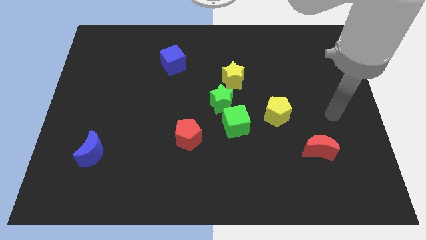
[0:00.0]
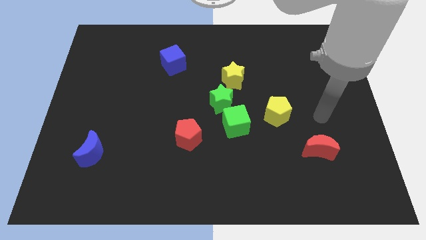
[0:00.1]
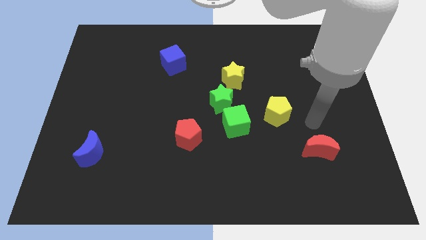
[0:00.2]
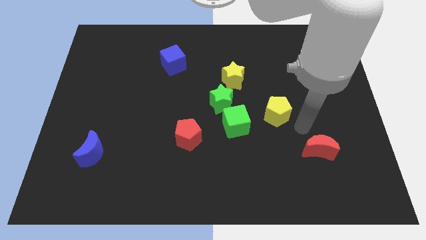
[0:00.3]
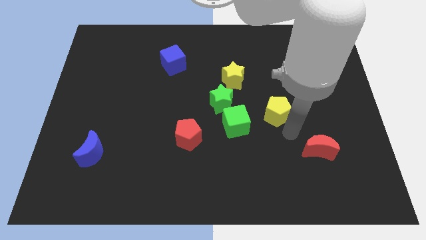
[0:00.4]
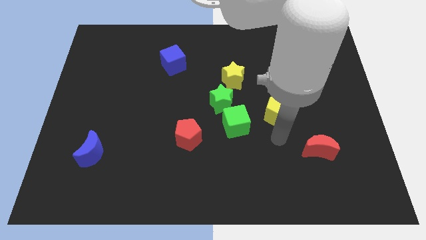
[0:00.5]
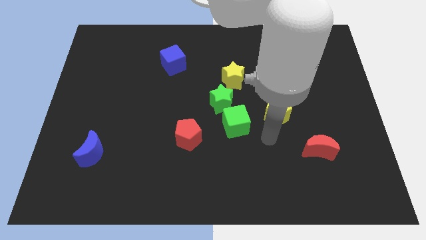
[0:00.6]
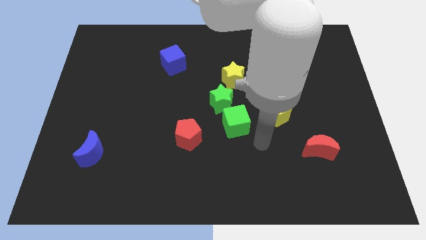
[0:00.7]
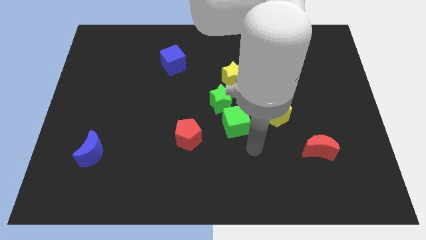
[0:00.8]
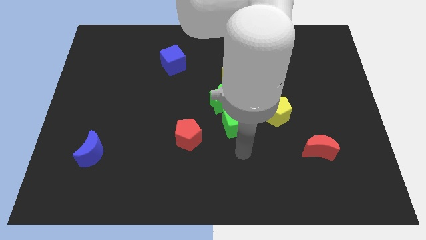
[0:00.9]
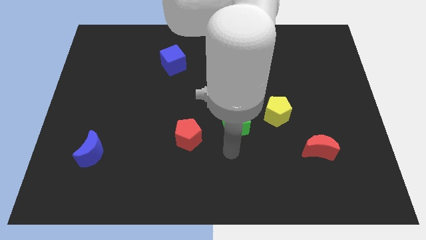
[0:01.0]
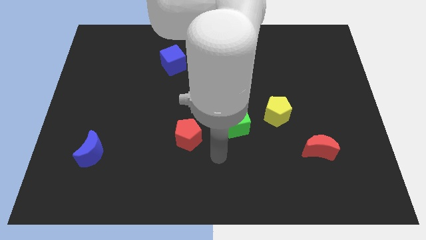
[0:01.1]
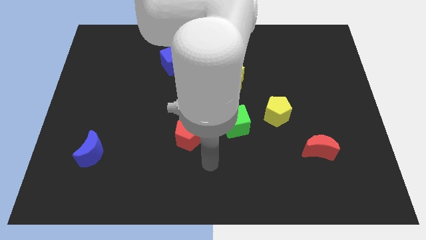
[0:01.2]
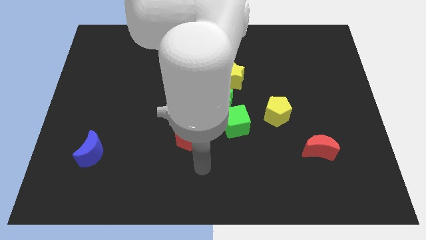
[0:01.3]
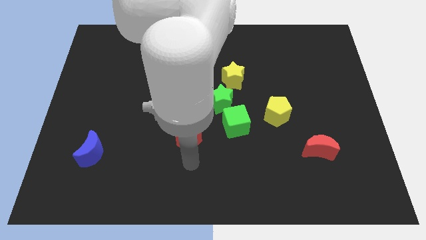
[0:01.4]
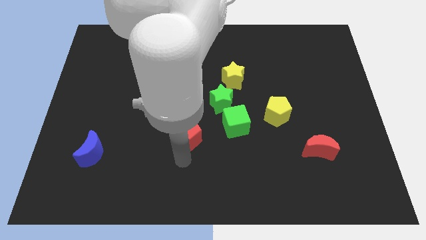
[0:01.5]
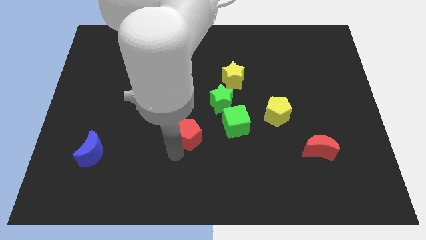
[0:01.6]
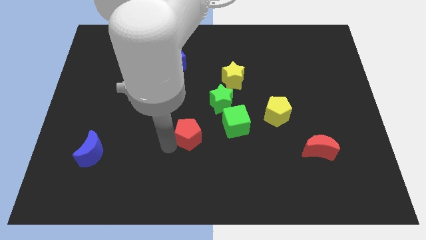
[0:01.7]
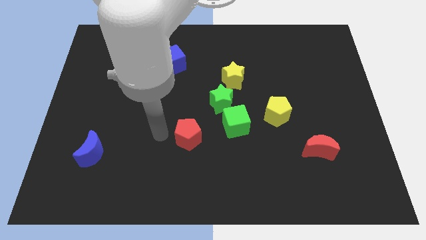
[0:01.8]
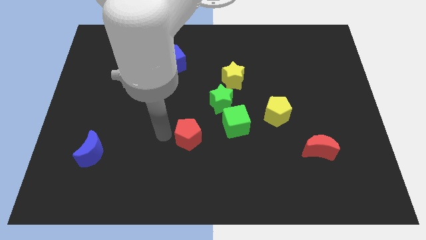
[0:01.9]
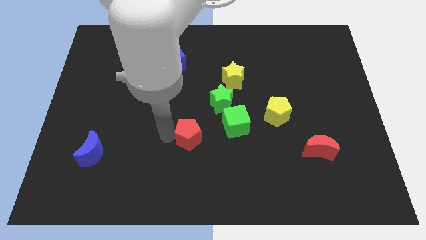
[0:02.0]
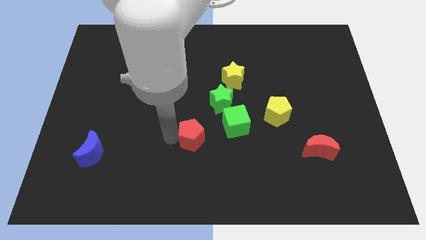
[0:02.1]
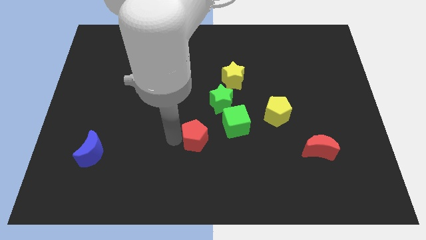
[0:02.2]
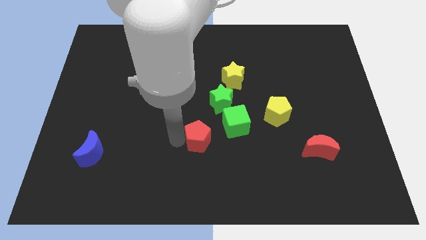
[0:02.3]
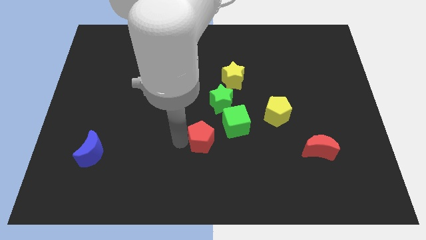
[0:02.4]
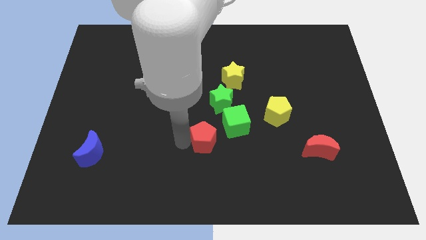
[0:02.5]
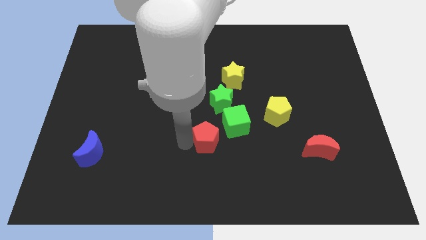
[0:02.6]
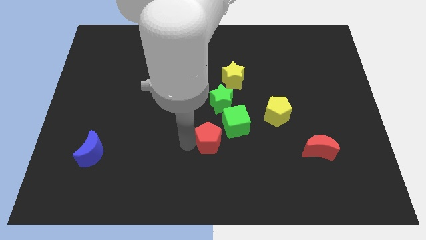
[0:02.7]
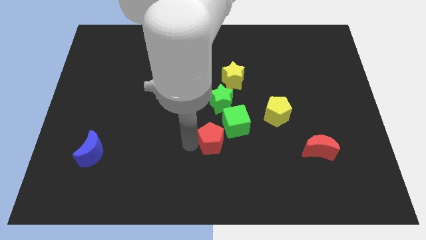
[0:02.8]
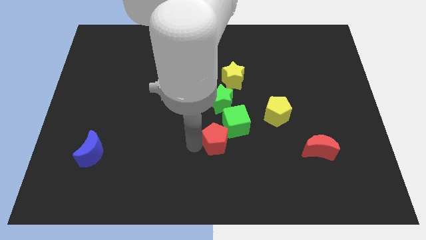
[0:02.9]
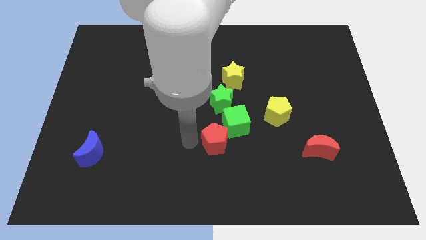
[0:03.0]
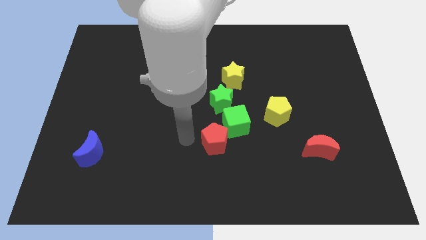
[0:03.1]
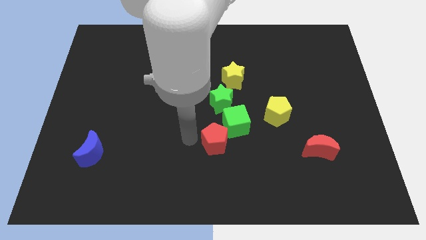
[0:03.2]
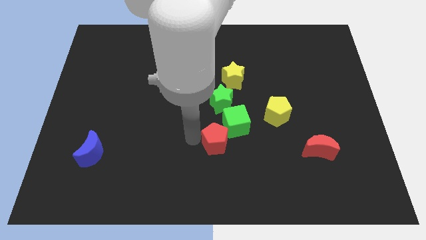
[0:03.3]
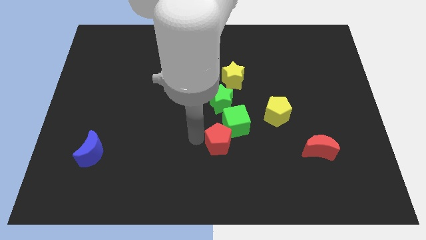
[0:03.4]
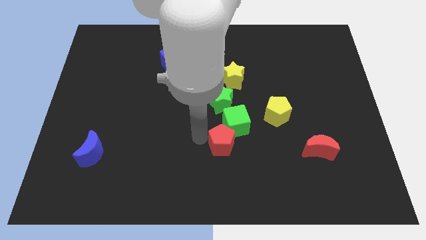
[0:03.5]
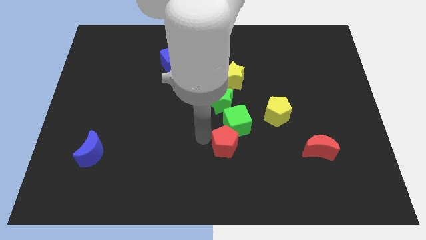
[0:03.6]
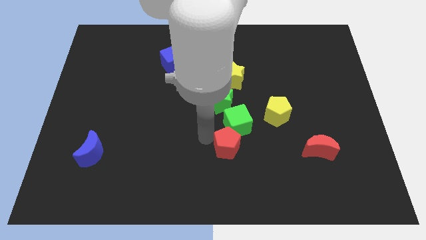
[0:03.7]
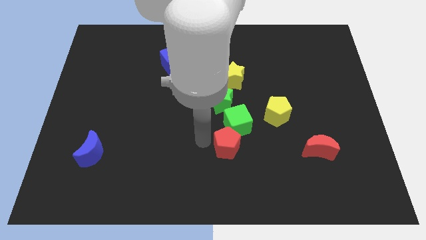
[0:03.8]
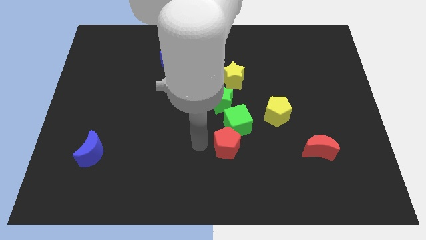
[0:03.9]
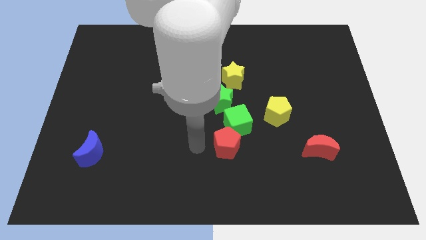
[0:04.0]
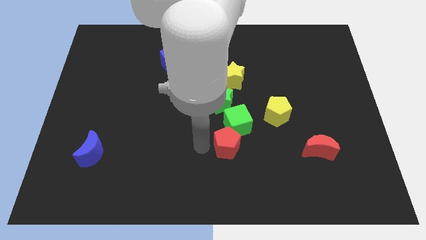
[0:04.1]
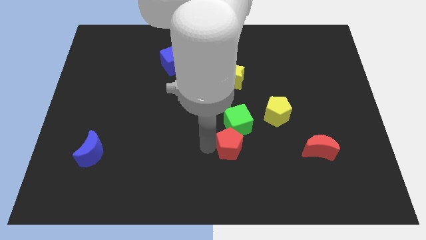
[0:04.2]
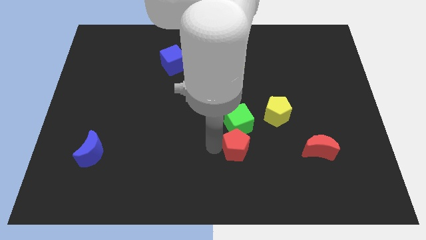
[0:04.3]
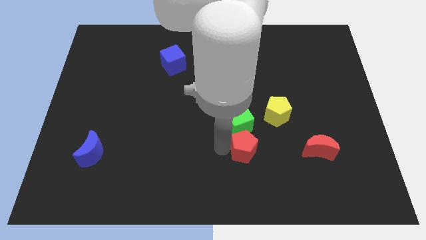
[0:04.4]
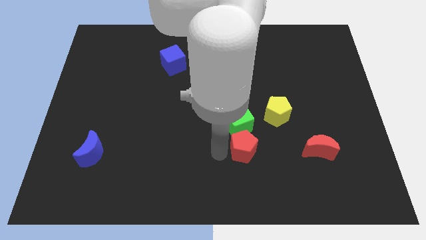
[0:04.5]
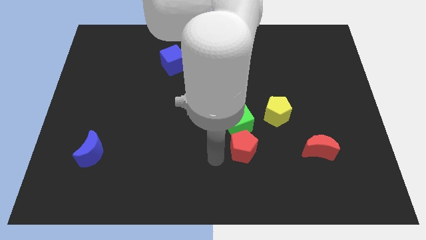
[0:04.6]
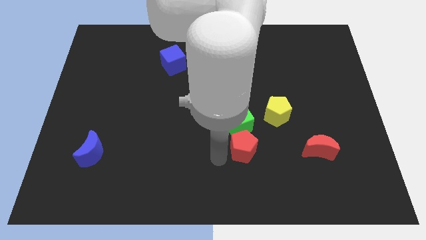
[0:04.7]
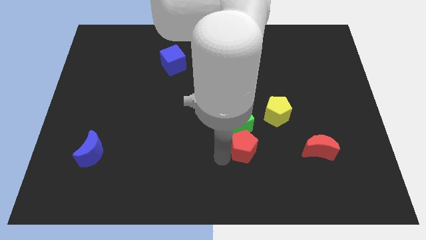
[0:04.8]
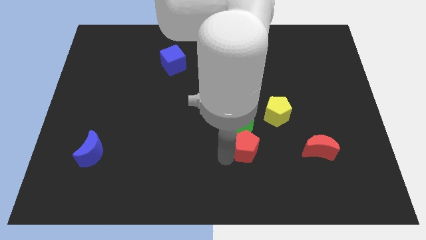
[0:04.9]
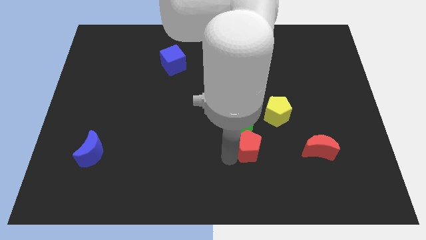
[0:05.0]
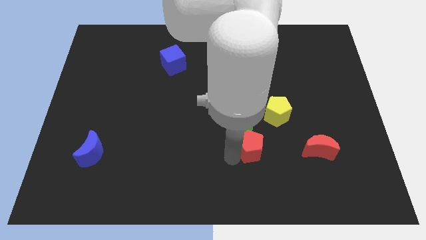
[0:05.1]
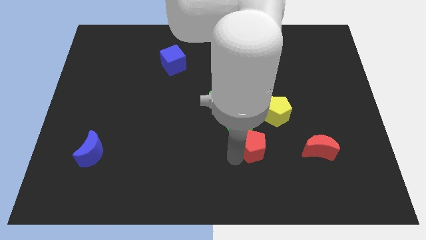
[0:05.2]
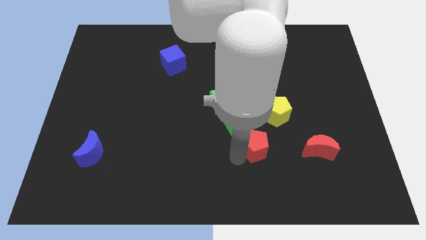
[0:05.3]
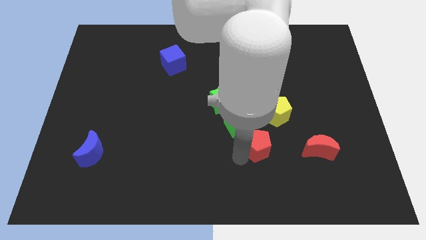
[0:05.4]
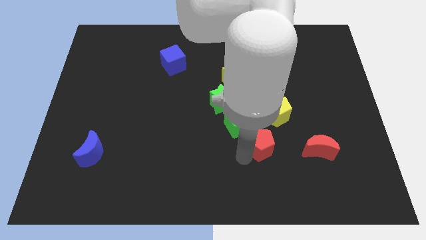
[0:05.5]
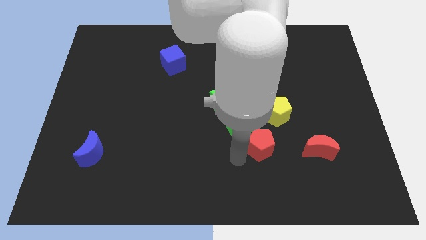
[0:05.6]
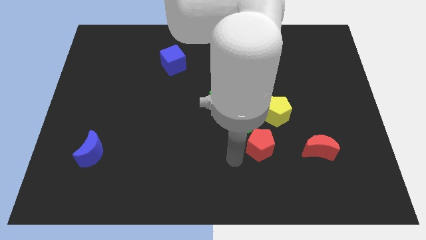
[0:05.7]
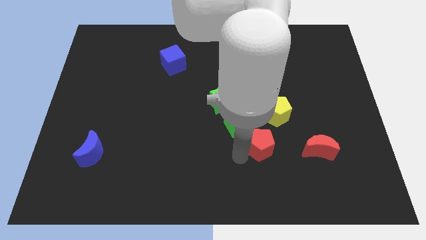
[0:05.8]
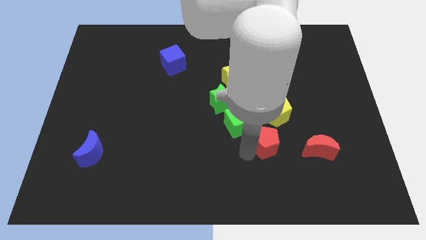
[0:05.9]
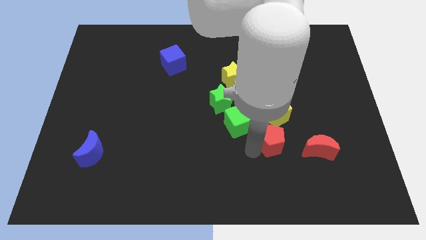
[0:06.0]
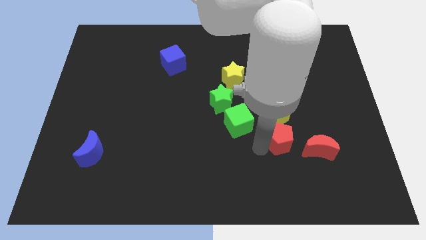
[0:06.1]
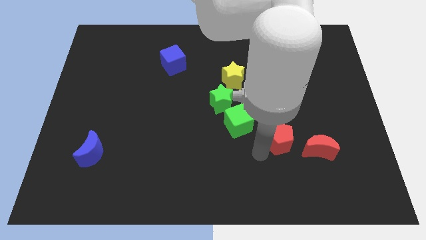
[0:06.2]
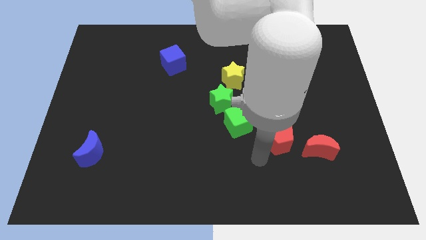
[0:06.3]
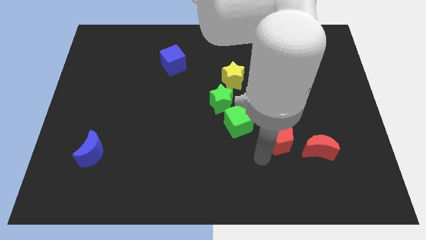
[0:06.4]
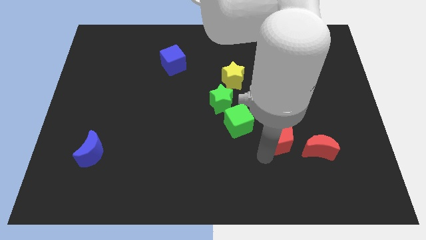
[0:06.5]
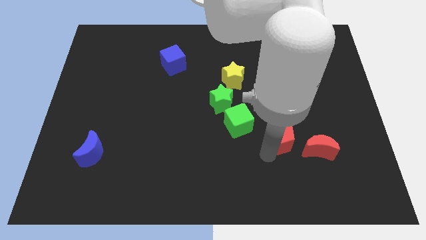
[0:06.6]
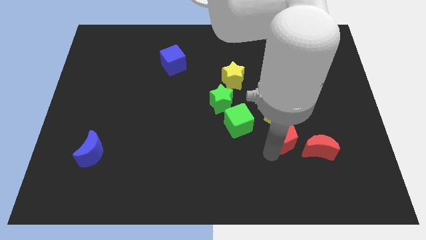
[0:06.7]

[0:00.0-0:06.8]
slide the red pentagon to the bottom right side of the yellow pentagon
